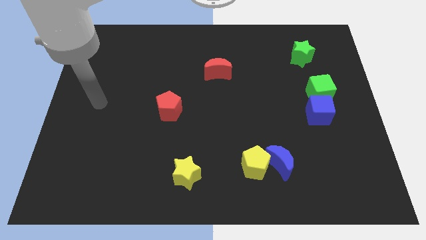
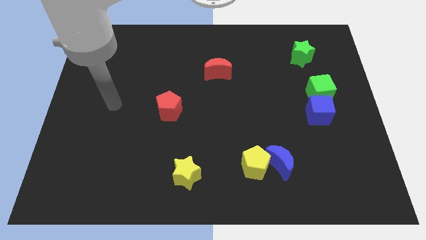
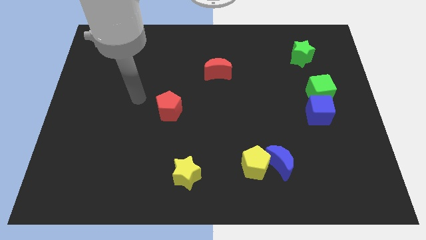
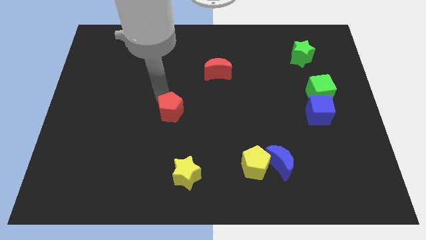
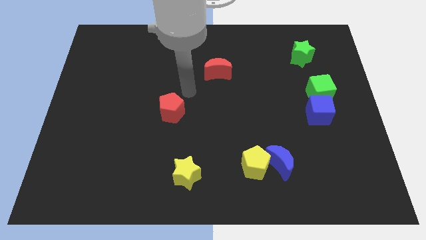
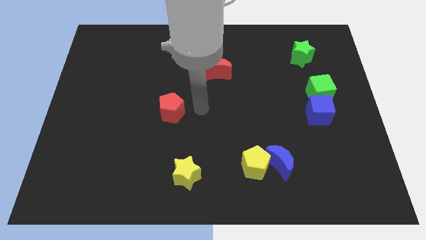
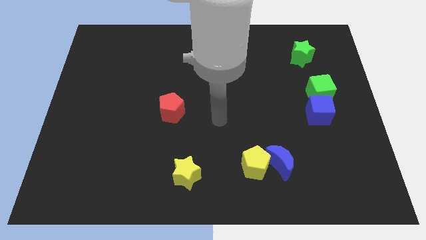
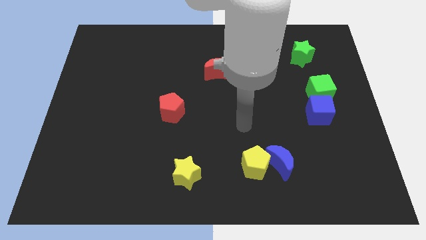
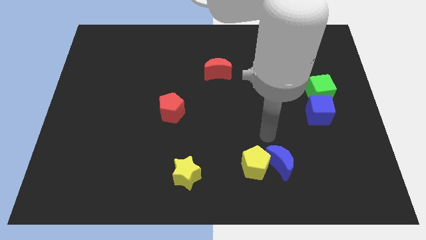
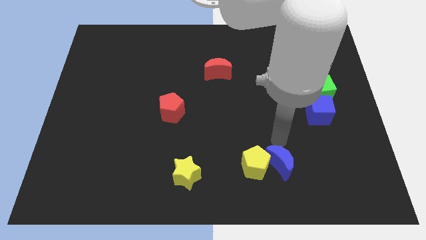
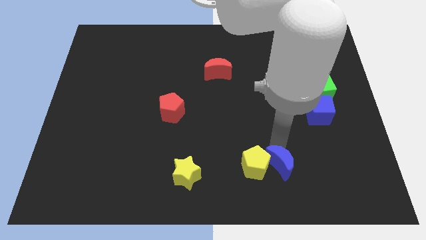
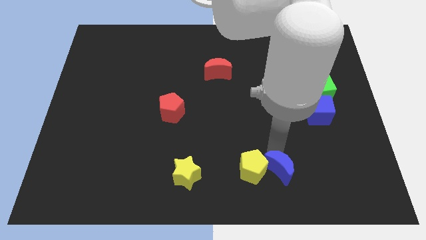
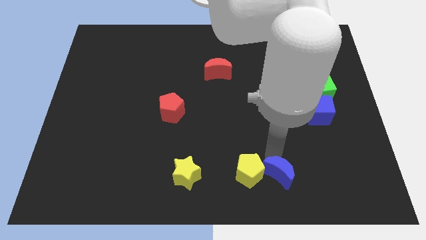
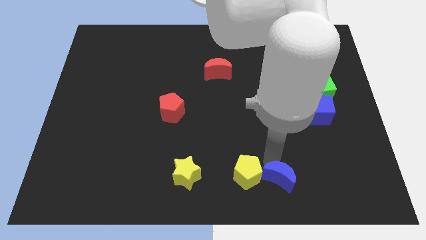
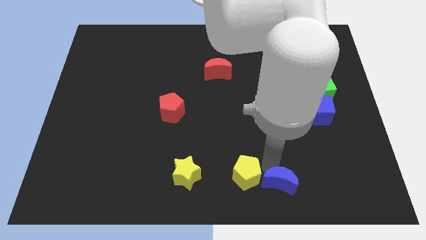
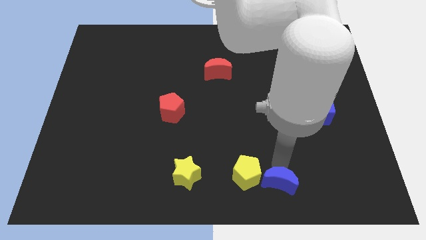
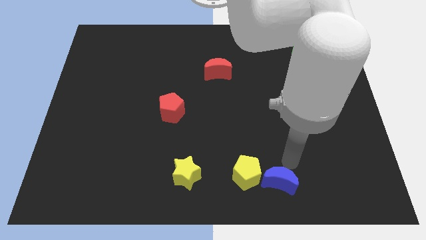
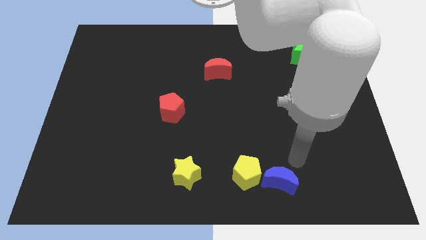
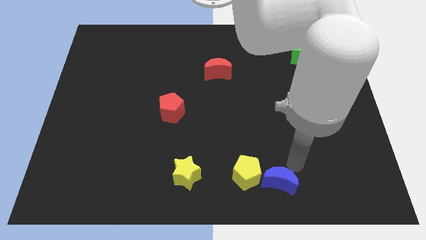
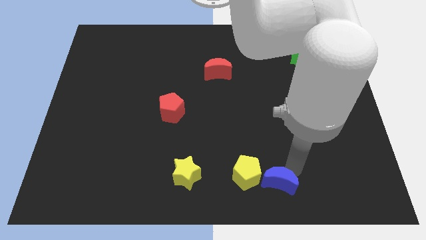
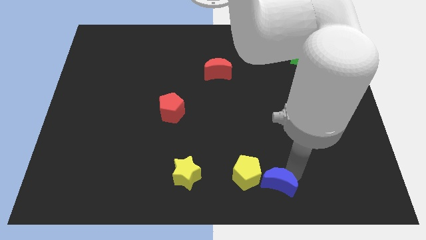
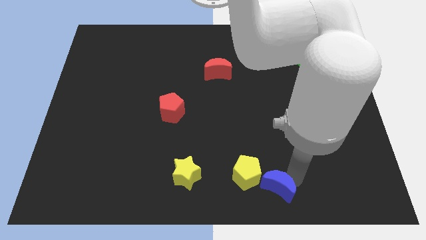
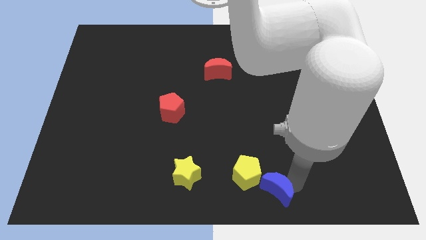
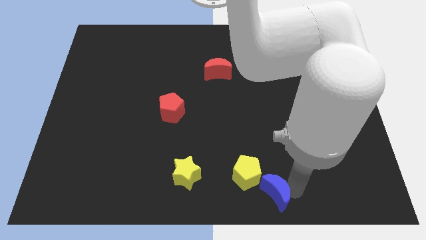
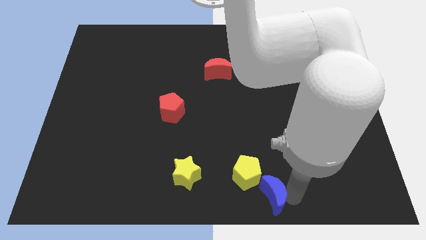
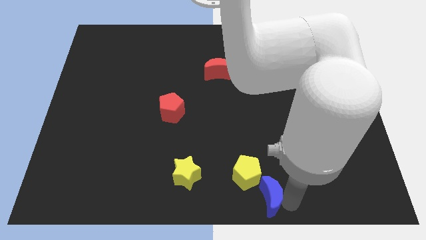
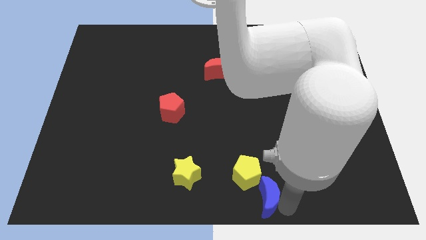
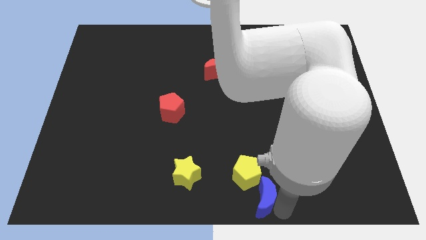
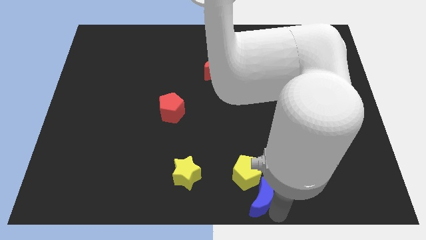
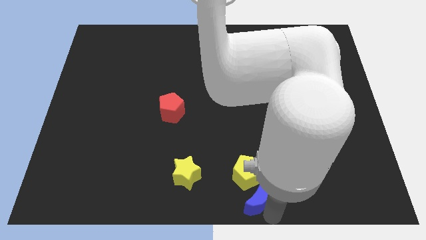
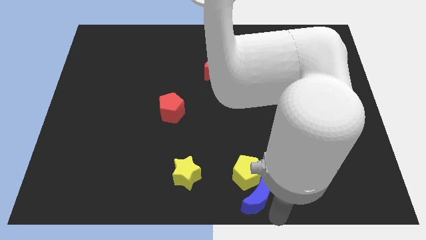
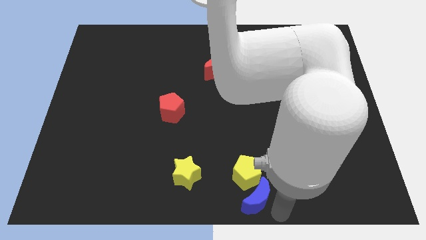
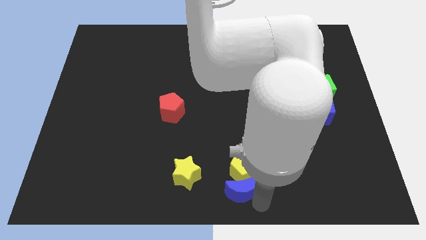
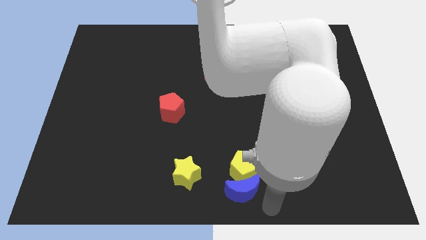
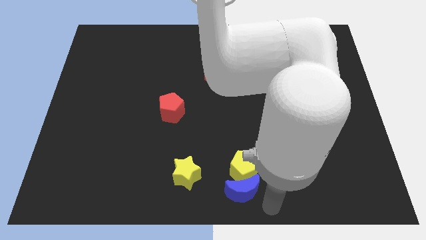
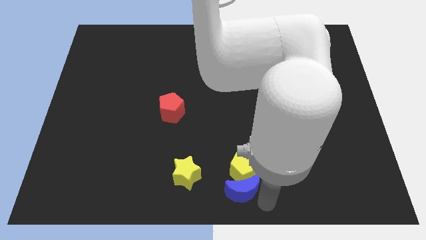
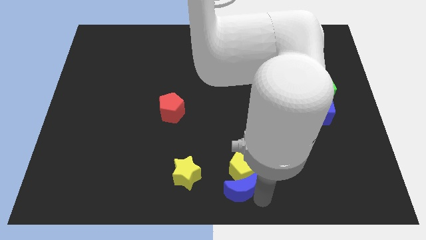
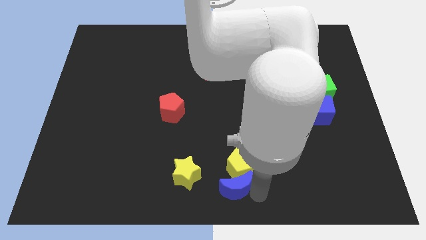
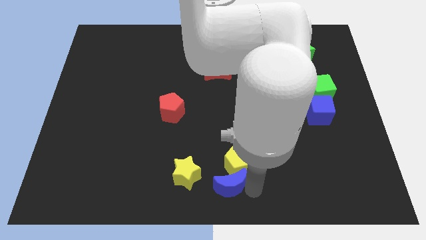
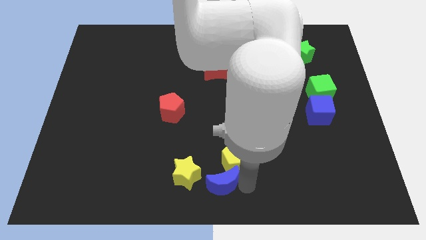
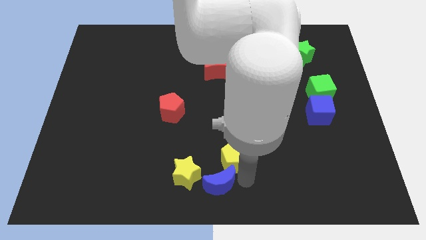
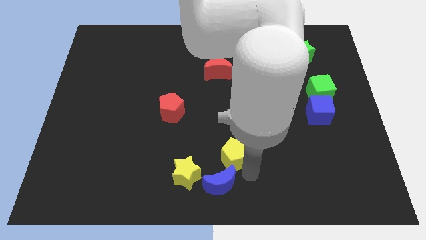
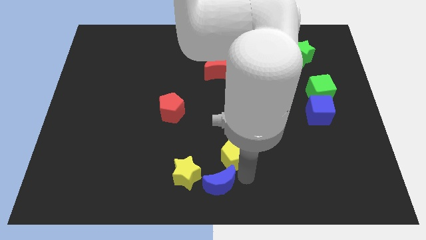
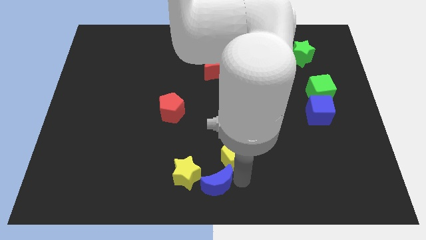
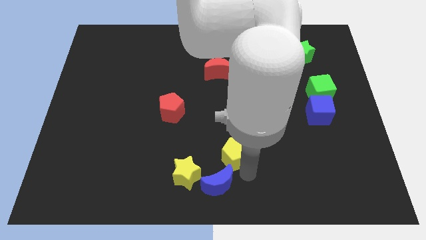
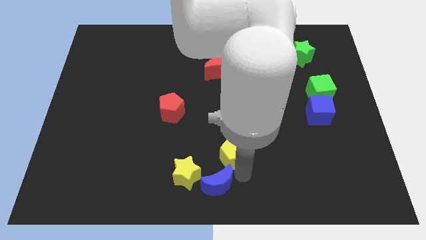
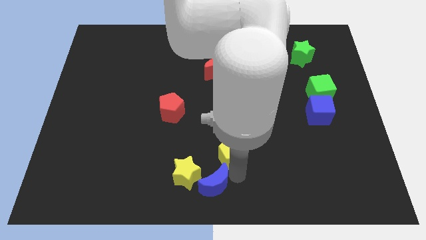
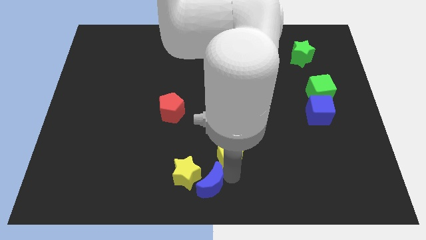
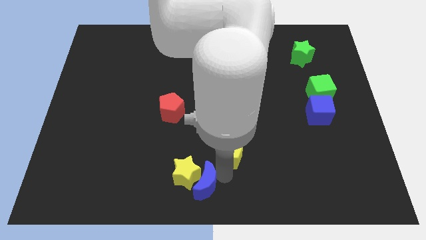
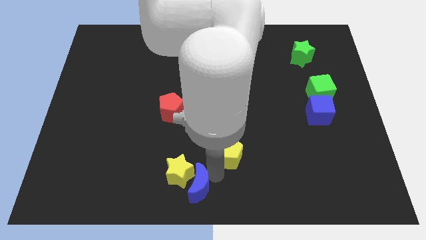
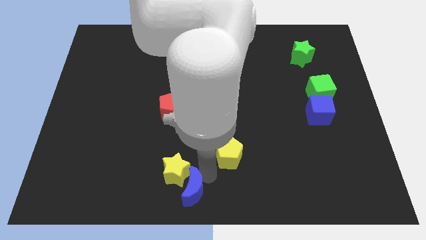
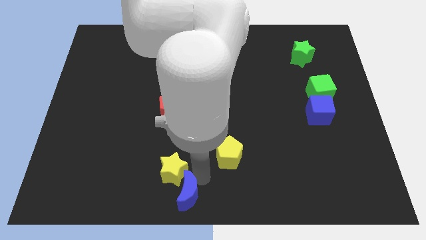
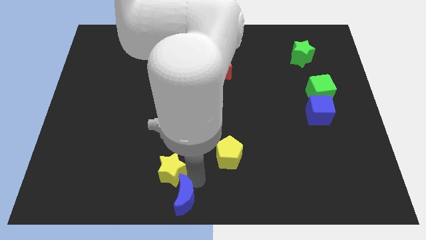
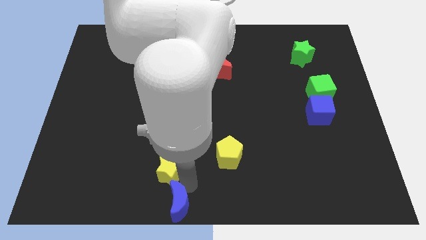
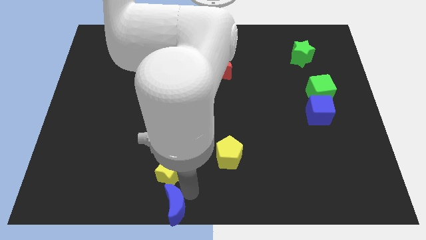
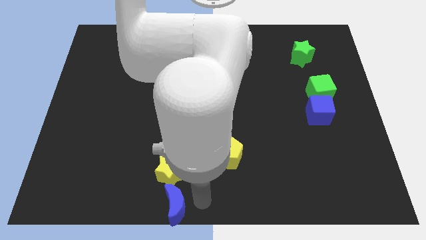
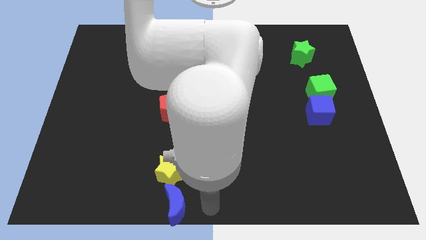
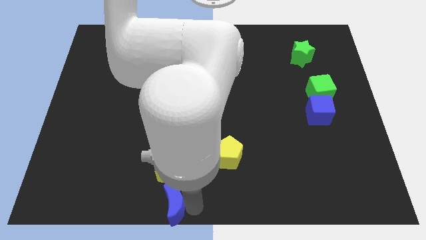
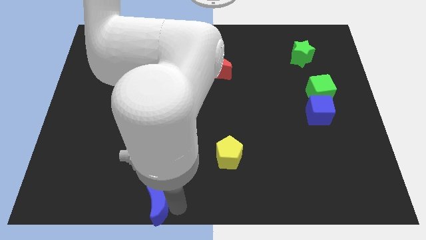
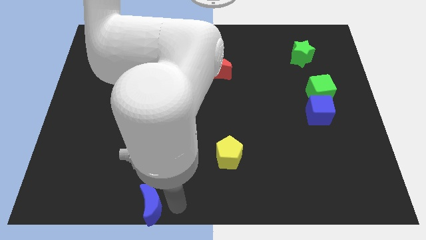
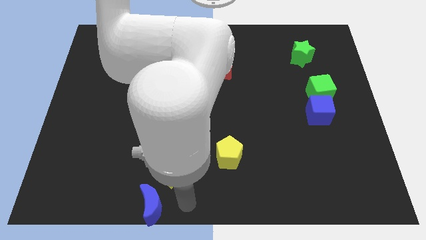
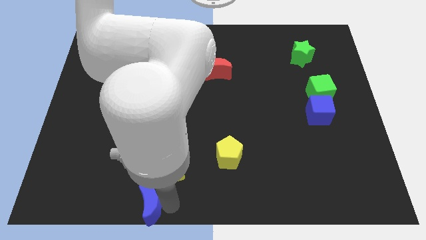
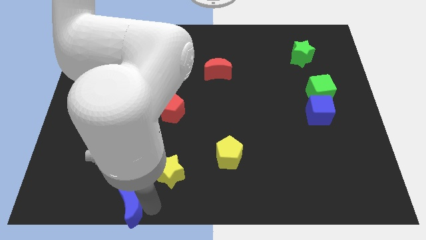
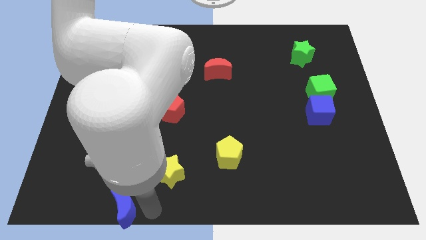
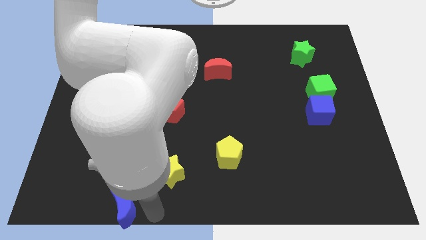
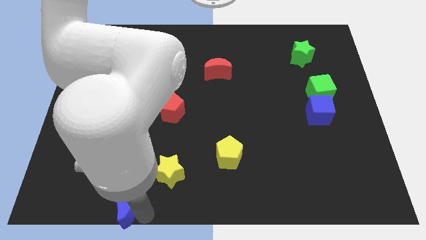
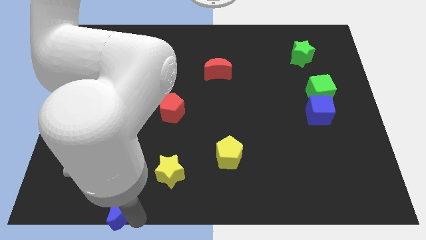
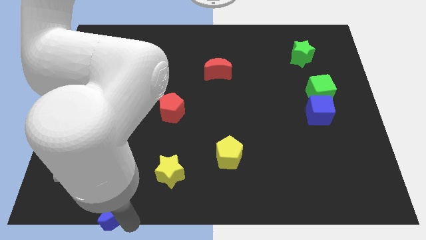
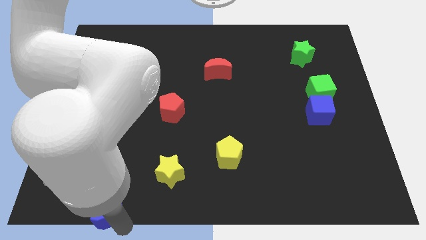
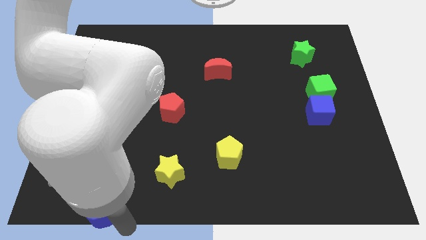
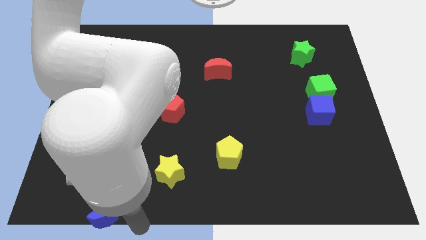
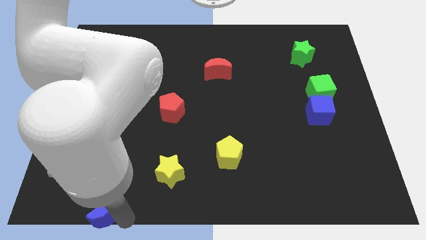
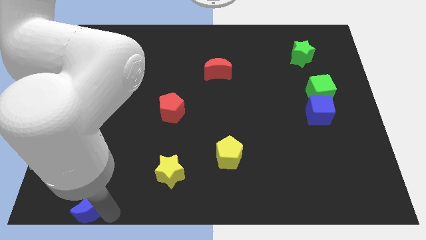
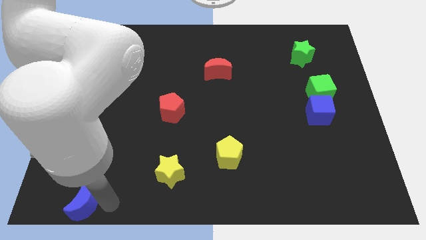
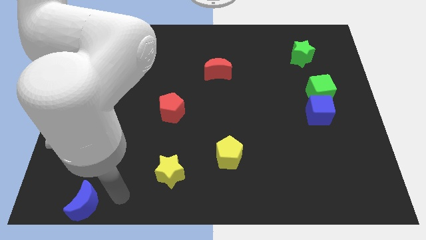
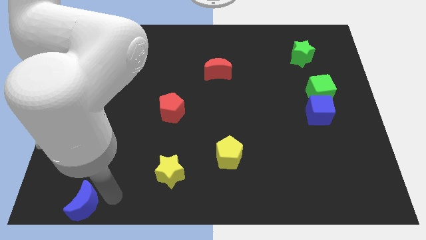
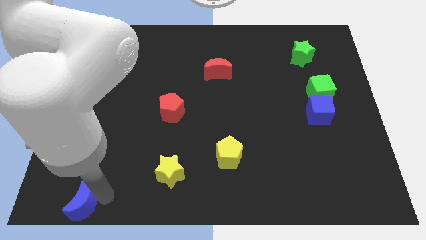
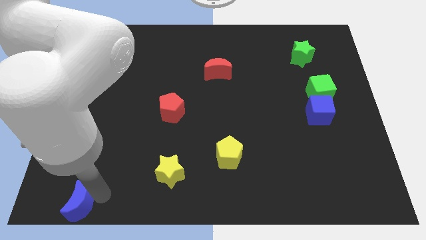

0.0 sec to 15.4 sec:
slide the blue moon to the bottom left of the board
